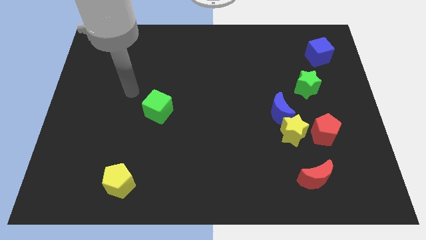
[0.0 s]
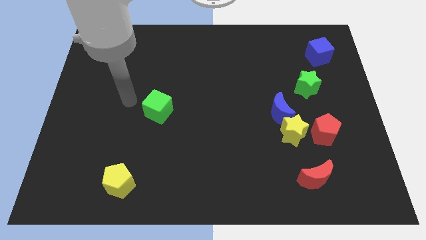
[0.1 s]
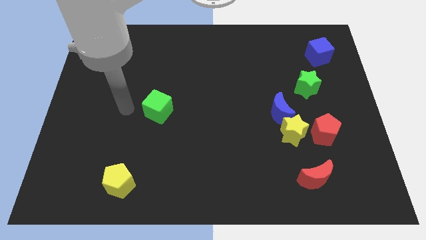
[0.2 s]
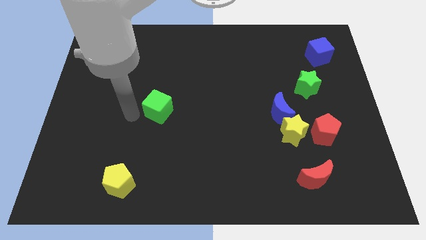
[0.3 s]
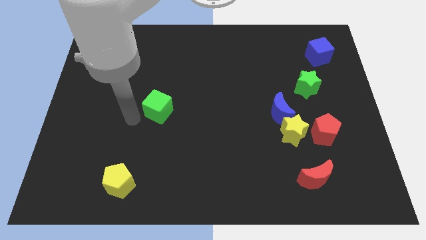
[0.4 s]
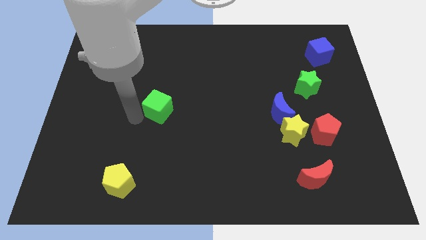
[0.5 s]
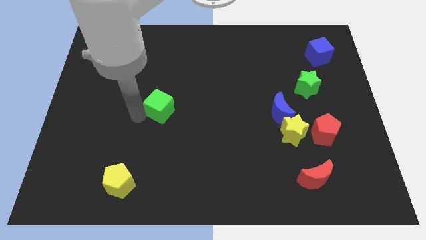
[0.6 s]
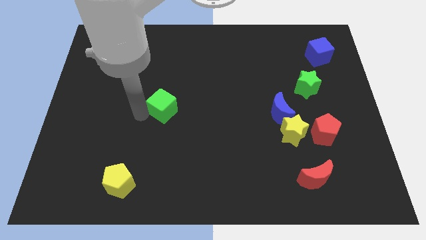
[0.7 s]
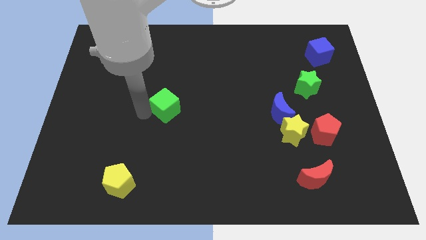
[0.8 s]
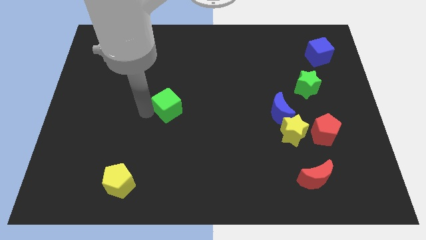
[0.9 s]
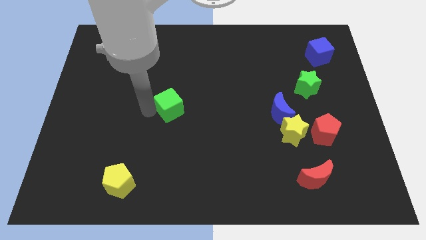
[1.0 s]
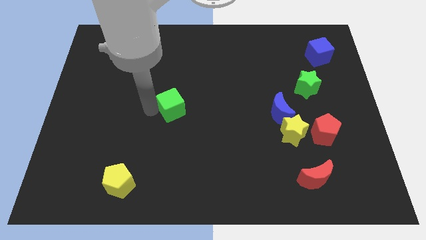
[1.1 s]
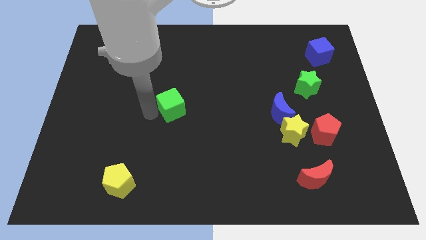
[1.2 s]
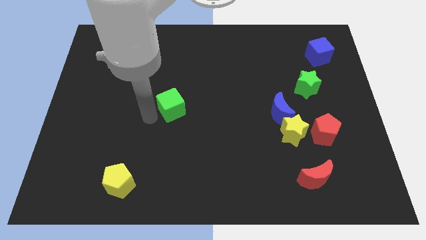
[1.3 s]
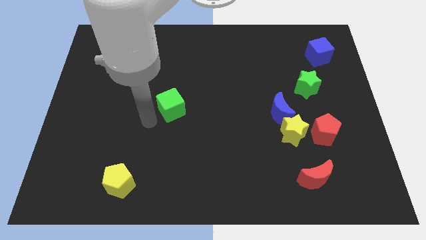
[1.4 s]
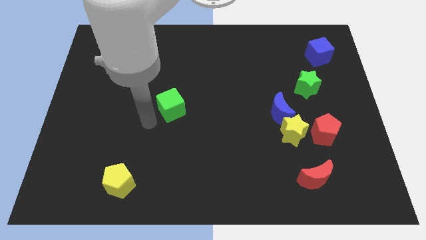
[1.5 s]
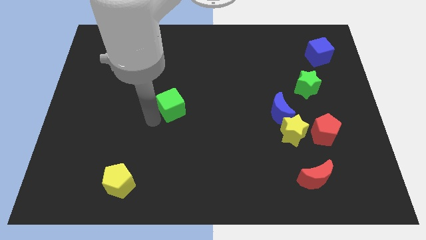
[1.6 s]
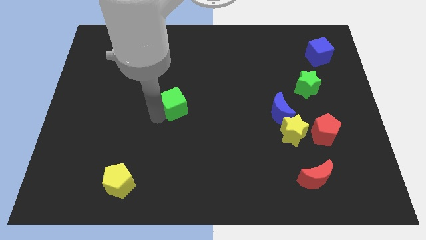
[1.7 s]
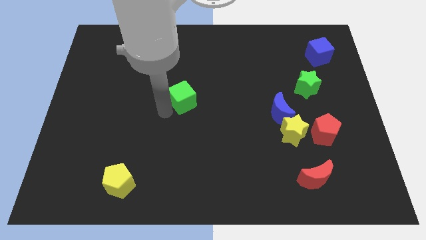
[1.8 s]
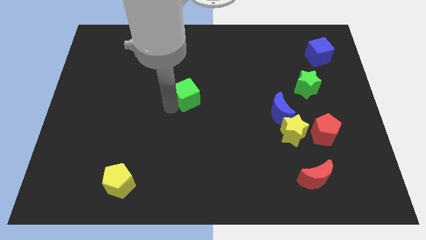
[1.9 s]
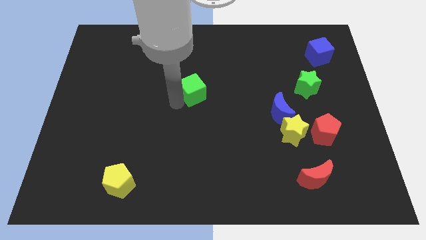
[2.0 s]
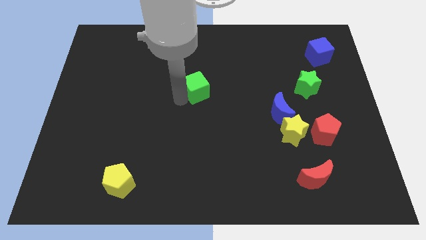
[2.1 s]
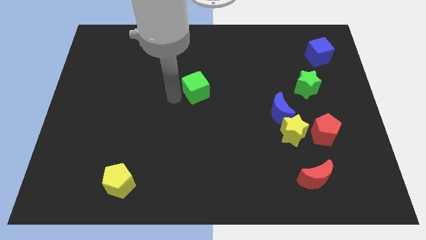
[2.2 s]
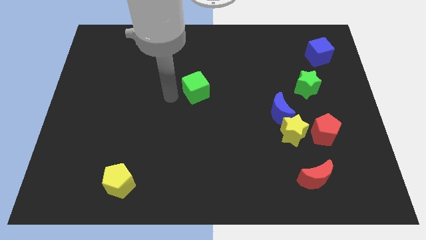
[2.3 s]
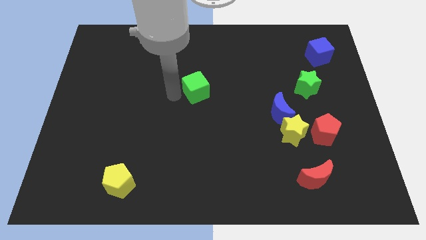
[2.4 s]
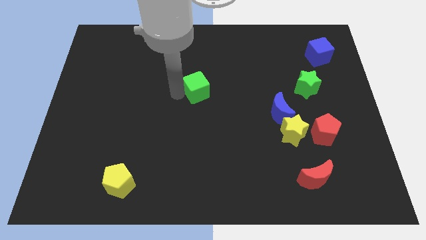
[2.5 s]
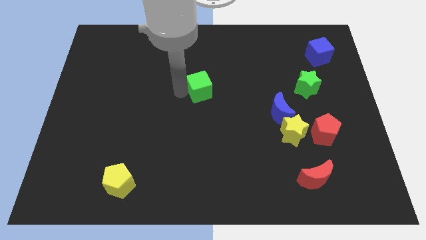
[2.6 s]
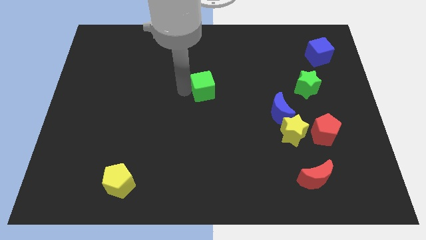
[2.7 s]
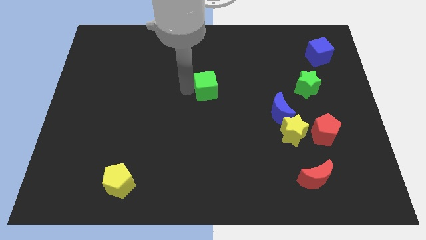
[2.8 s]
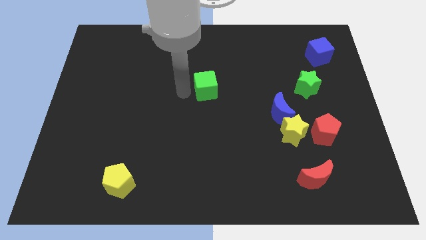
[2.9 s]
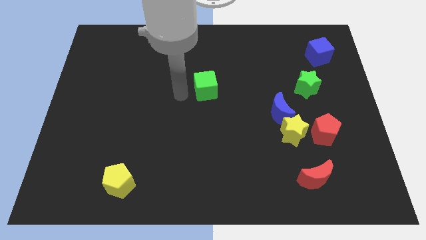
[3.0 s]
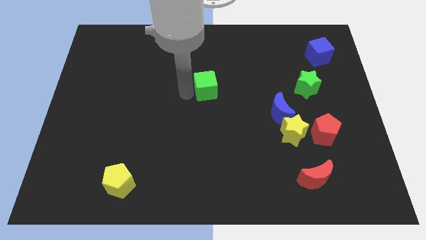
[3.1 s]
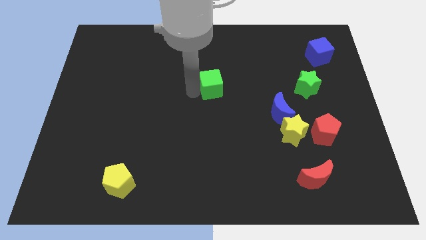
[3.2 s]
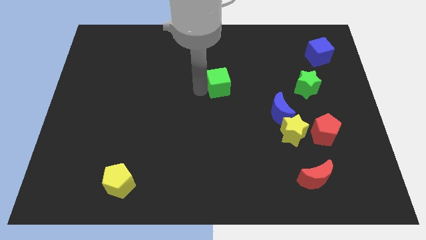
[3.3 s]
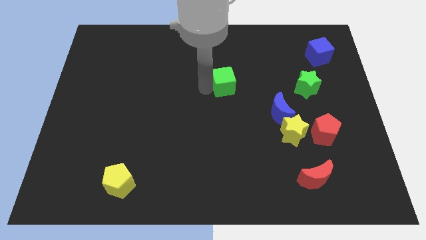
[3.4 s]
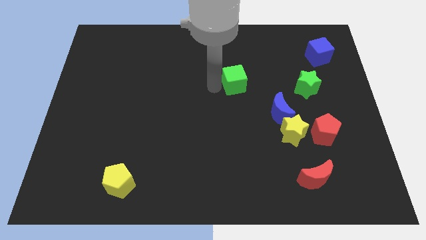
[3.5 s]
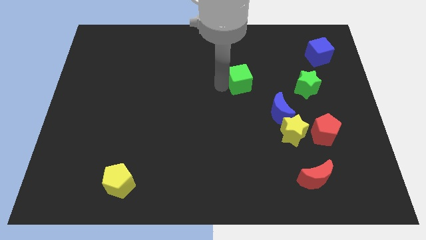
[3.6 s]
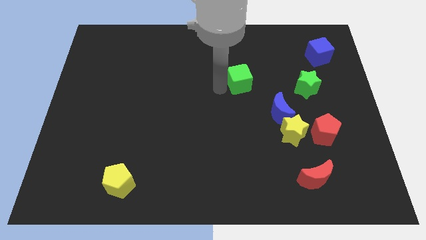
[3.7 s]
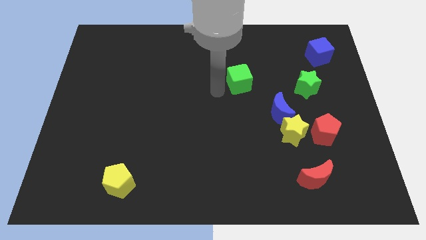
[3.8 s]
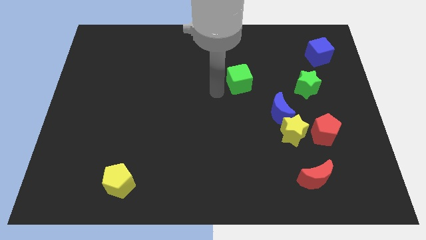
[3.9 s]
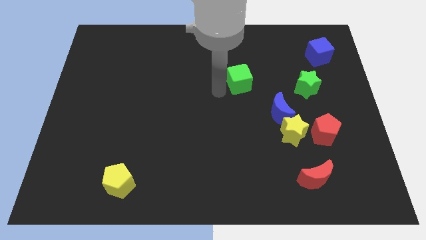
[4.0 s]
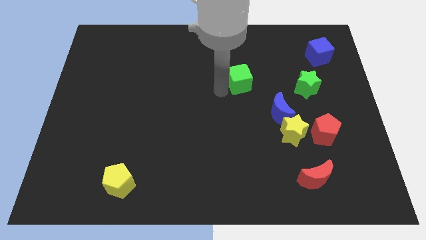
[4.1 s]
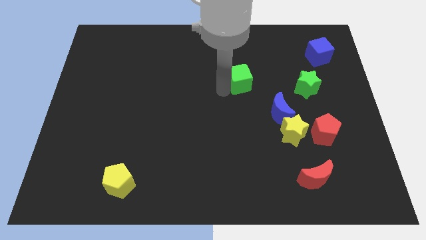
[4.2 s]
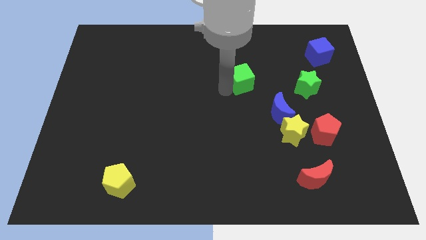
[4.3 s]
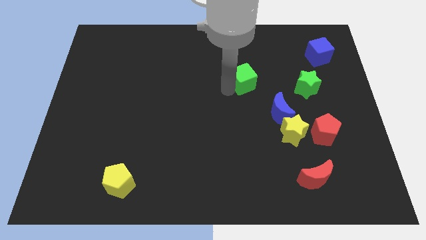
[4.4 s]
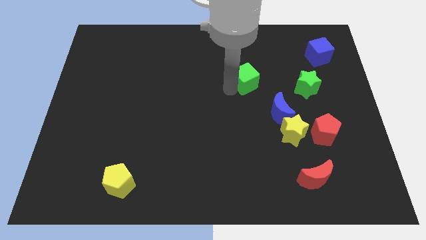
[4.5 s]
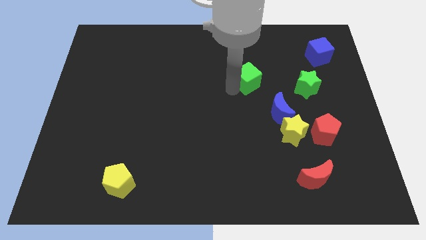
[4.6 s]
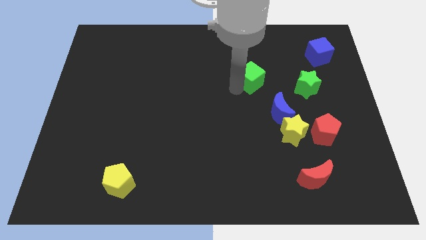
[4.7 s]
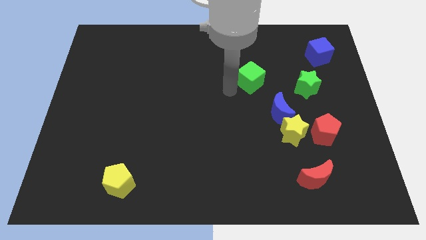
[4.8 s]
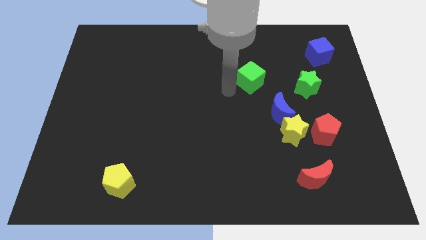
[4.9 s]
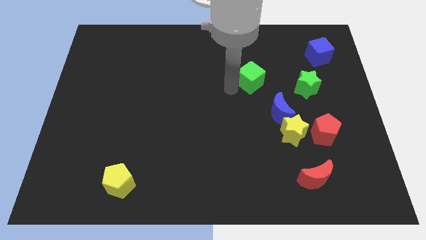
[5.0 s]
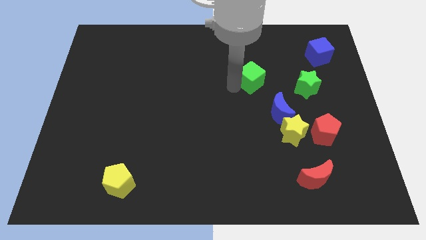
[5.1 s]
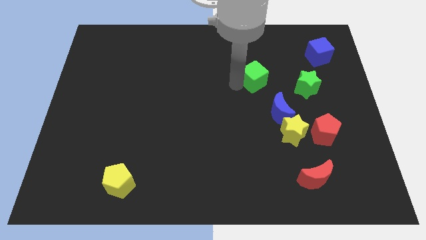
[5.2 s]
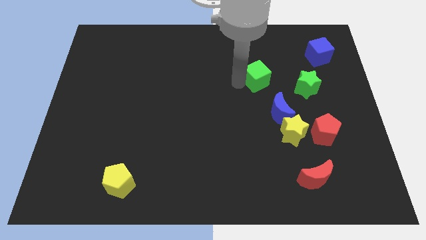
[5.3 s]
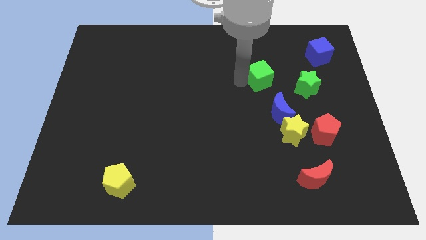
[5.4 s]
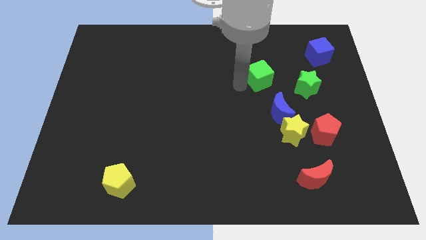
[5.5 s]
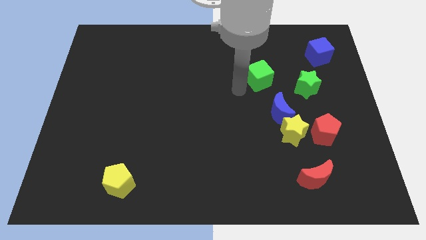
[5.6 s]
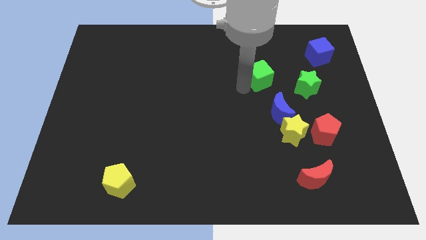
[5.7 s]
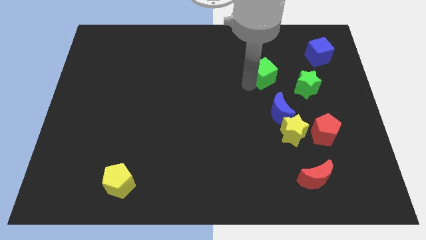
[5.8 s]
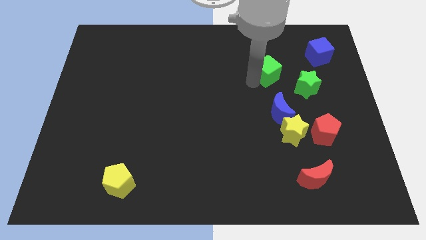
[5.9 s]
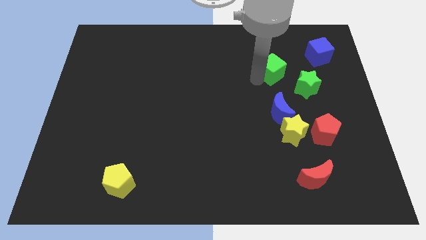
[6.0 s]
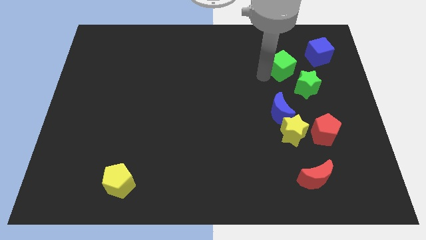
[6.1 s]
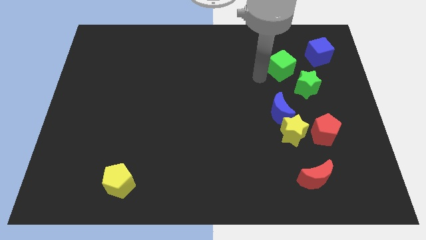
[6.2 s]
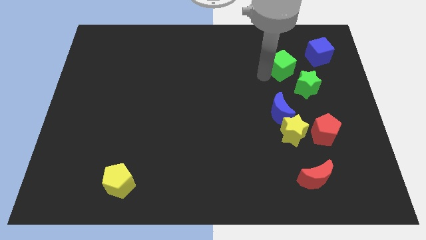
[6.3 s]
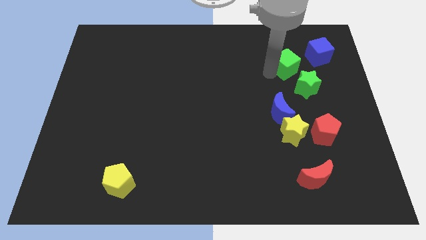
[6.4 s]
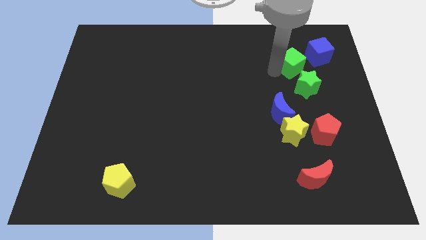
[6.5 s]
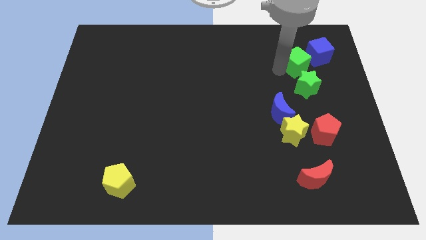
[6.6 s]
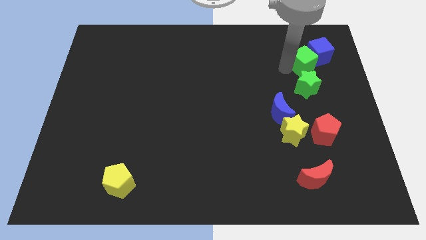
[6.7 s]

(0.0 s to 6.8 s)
push the green cube next to the blue cube
